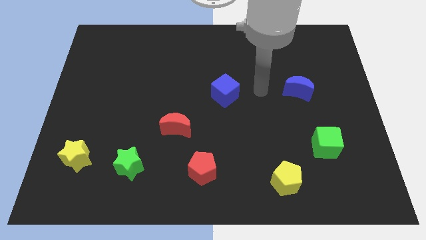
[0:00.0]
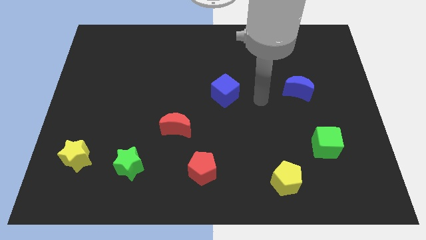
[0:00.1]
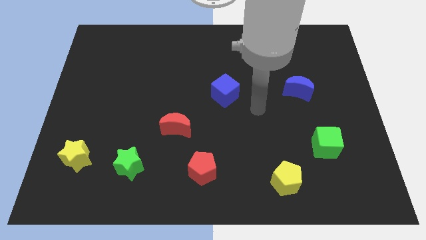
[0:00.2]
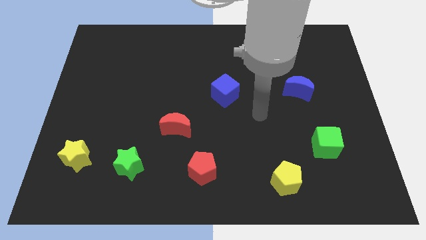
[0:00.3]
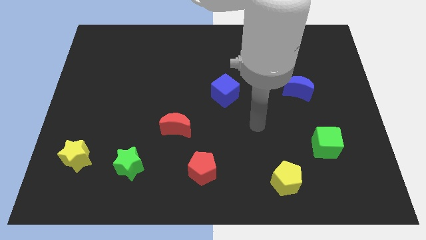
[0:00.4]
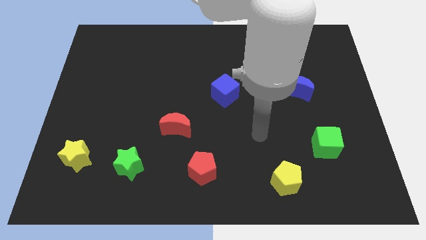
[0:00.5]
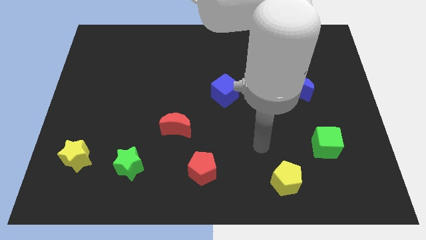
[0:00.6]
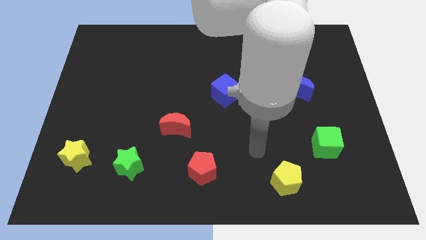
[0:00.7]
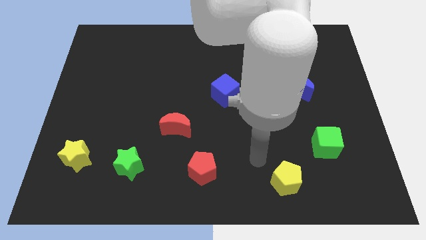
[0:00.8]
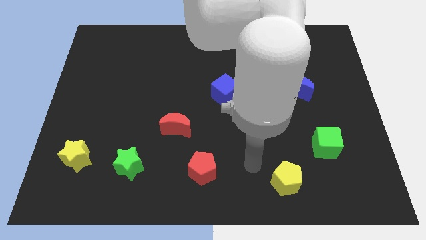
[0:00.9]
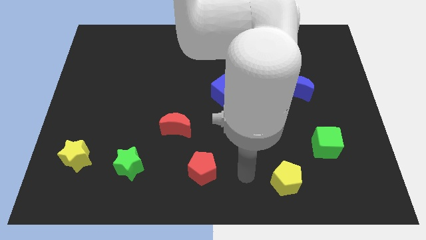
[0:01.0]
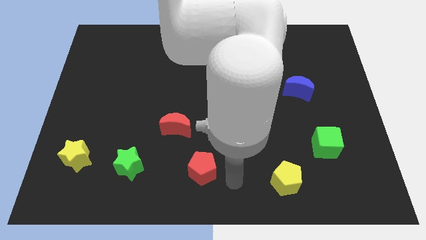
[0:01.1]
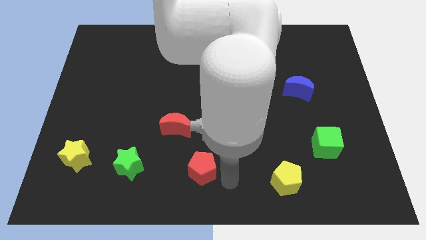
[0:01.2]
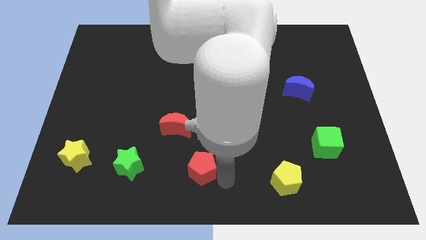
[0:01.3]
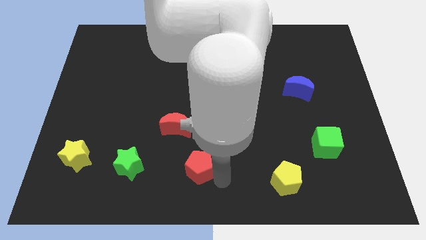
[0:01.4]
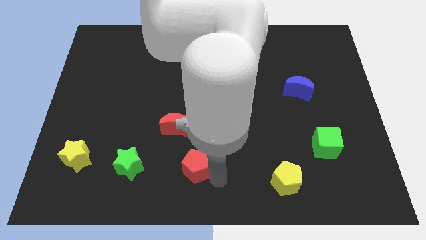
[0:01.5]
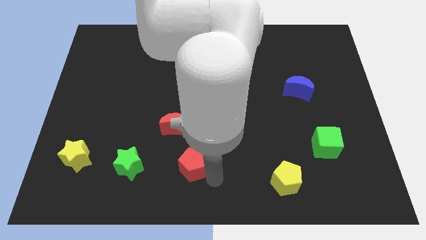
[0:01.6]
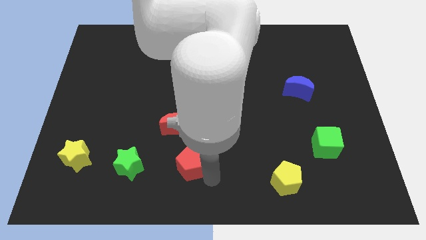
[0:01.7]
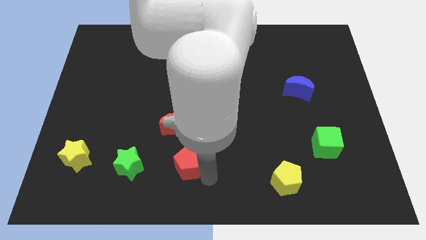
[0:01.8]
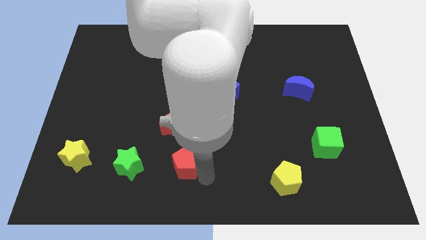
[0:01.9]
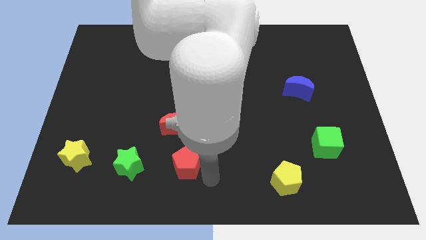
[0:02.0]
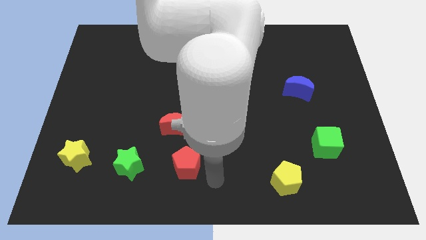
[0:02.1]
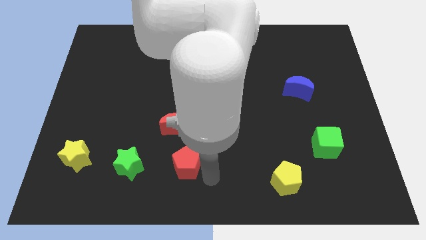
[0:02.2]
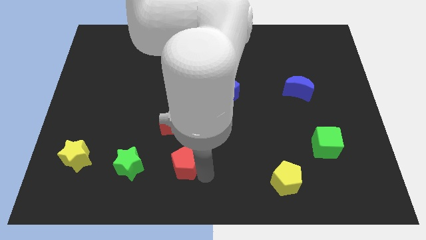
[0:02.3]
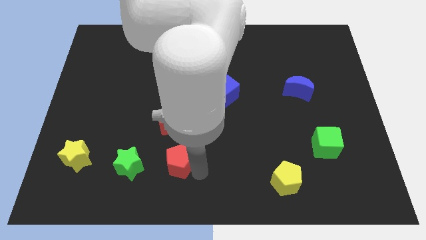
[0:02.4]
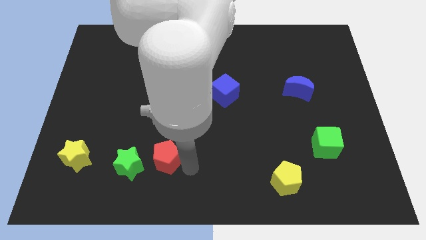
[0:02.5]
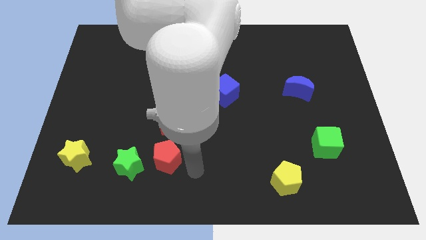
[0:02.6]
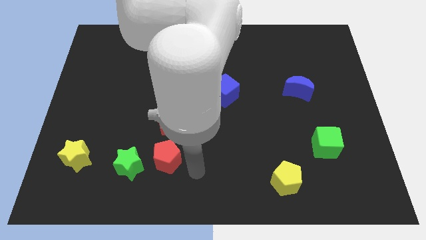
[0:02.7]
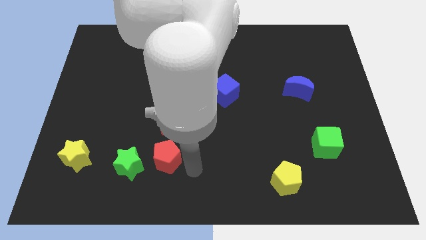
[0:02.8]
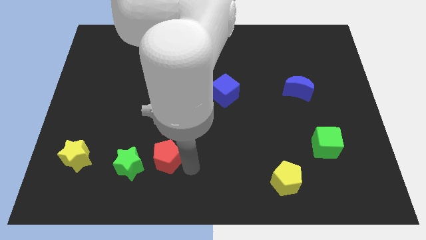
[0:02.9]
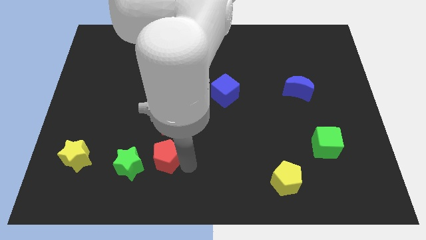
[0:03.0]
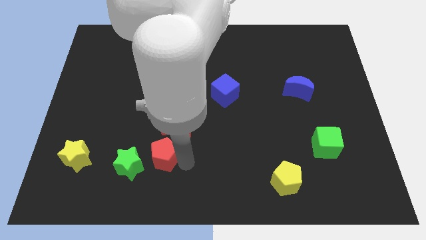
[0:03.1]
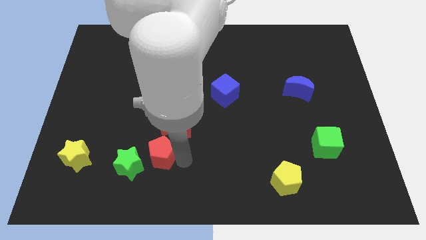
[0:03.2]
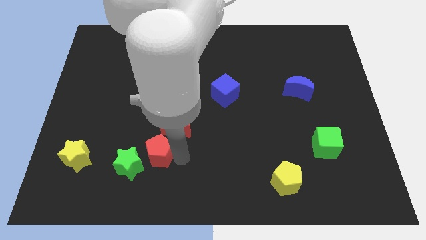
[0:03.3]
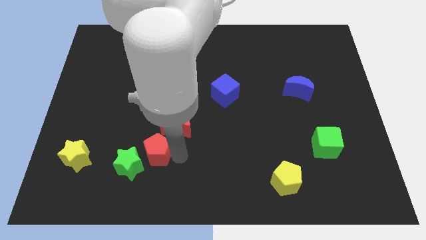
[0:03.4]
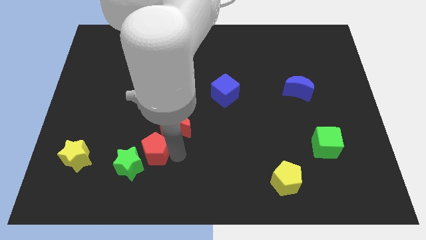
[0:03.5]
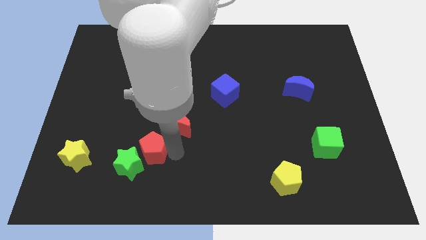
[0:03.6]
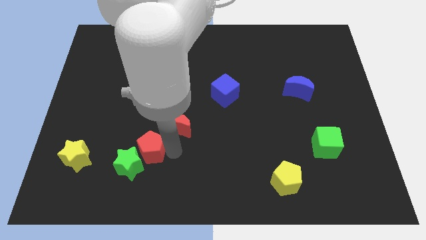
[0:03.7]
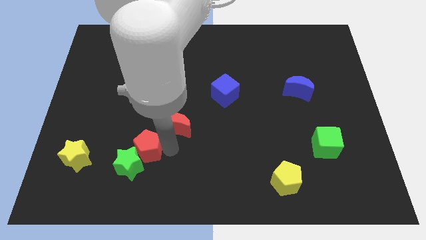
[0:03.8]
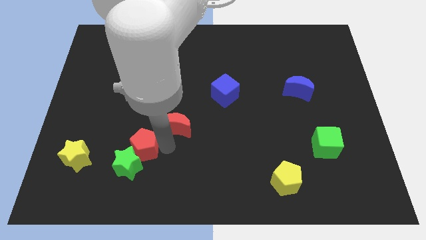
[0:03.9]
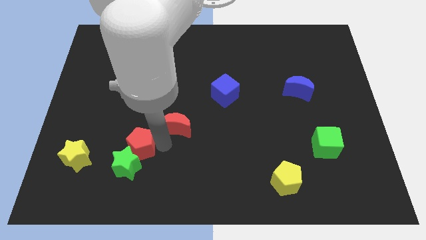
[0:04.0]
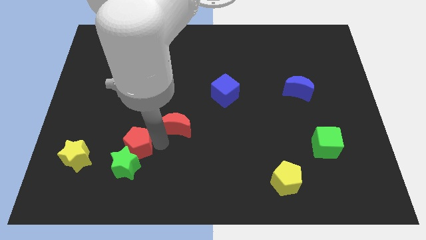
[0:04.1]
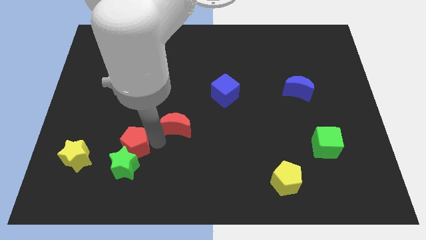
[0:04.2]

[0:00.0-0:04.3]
move the red pentagon to the top left side of the green star

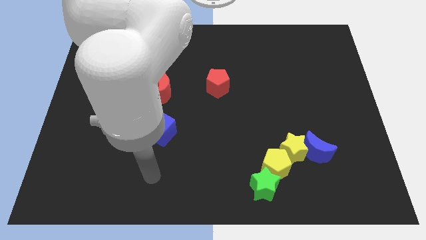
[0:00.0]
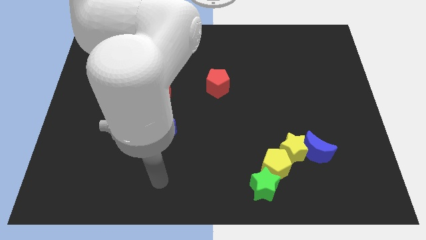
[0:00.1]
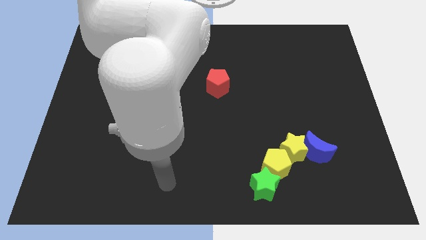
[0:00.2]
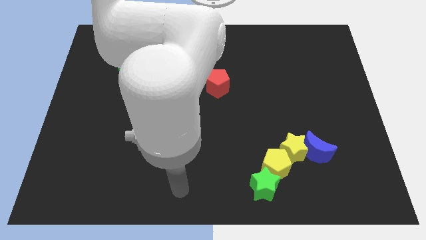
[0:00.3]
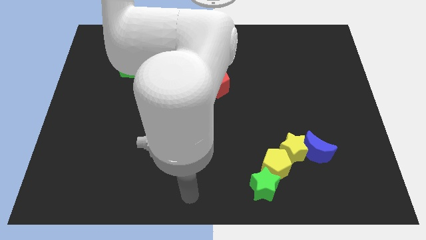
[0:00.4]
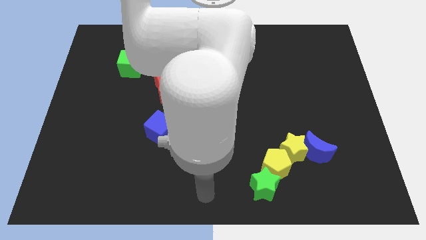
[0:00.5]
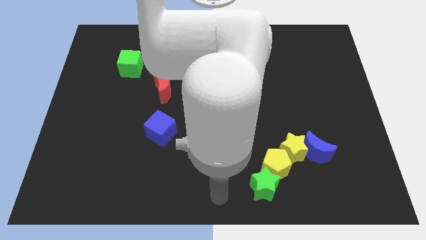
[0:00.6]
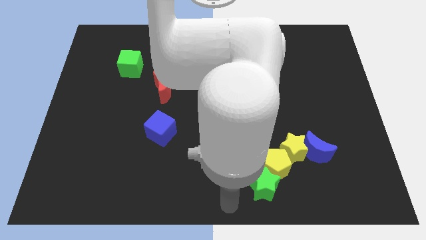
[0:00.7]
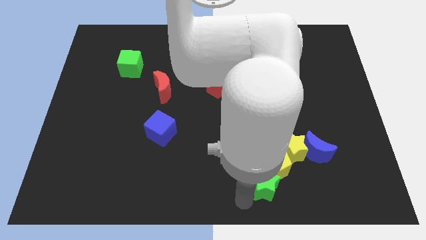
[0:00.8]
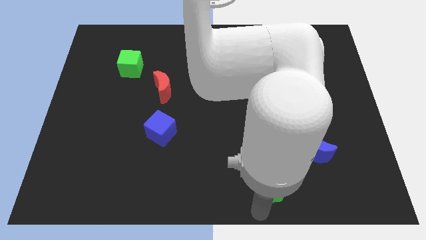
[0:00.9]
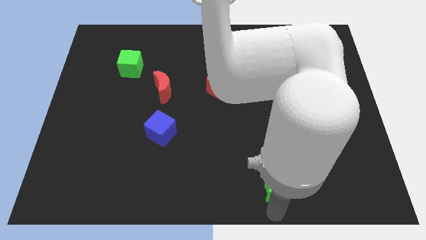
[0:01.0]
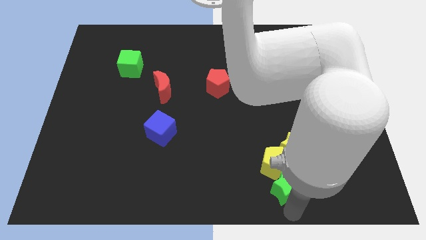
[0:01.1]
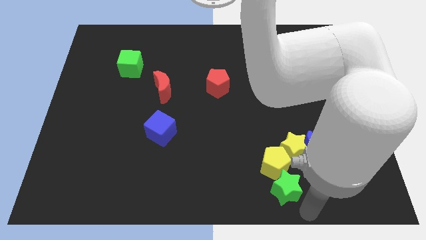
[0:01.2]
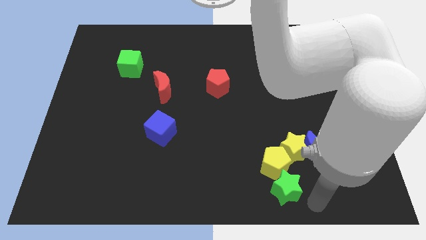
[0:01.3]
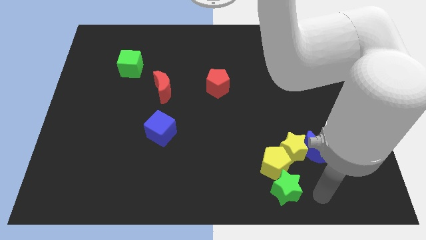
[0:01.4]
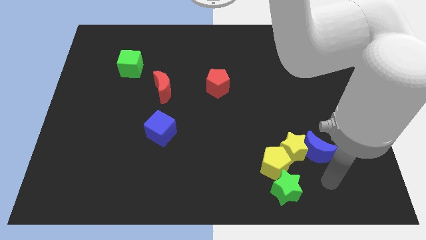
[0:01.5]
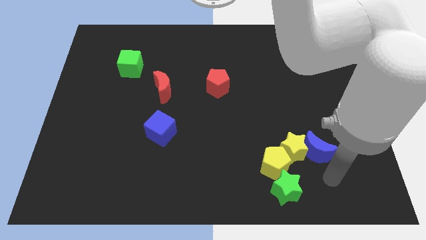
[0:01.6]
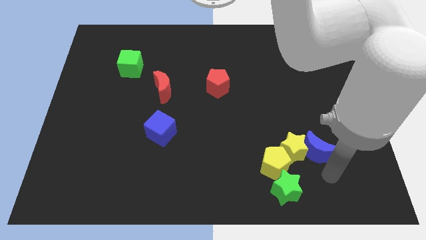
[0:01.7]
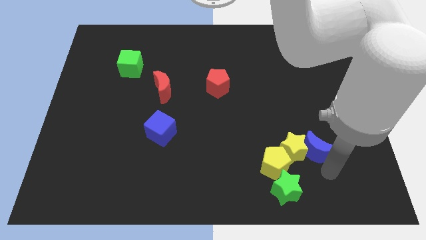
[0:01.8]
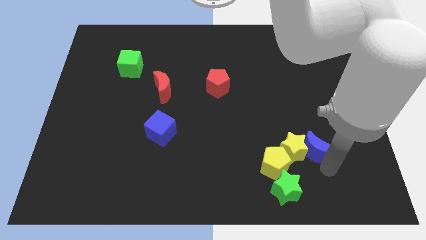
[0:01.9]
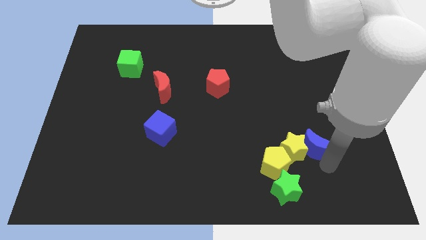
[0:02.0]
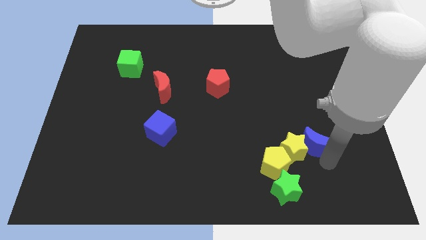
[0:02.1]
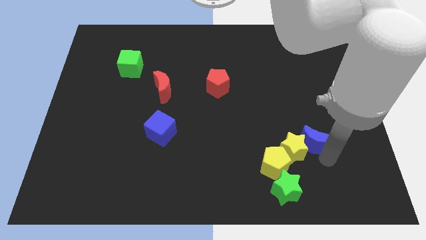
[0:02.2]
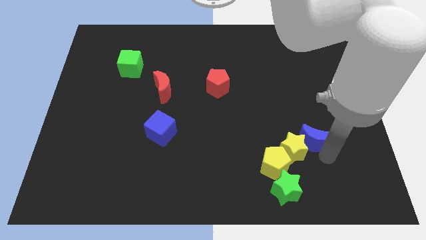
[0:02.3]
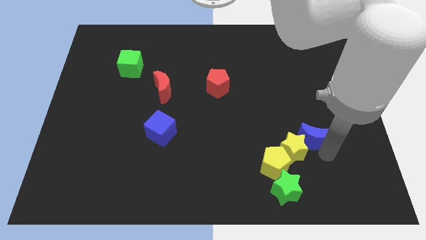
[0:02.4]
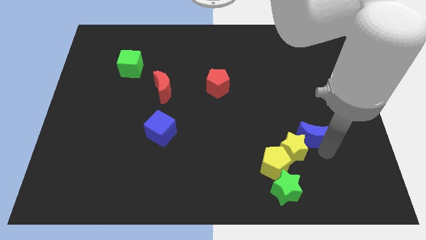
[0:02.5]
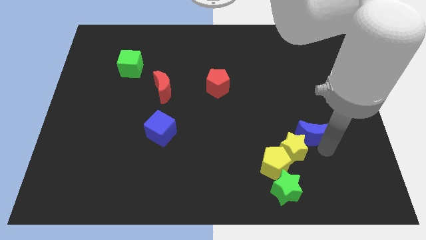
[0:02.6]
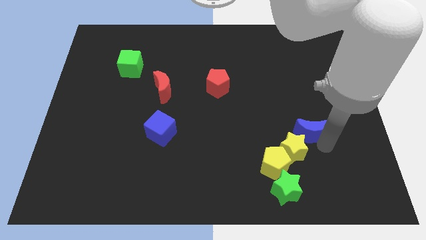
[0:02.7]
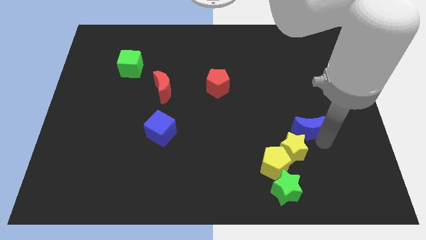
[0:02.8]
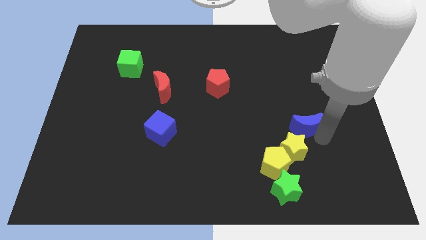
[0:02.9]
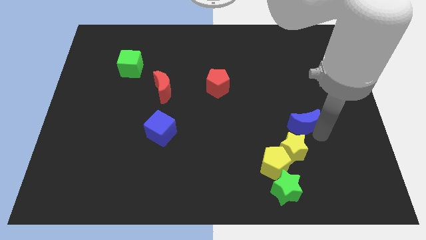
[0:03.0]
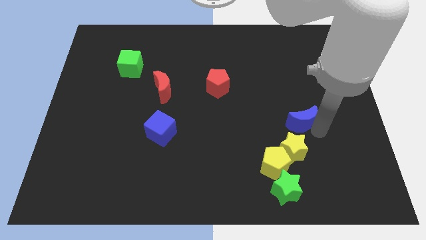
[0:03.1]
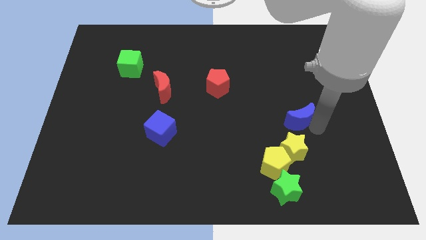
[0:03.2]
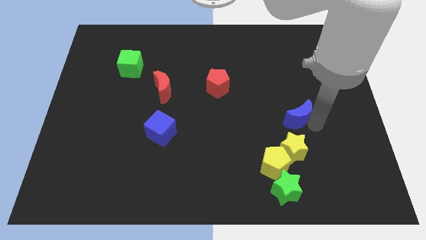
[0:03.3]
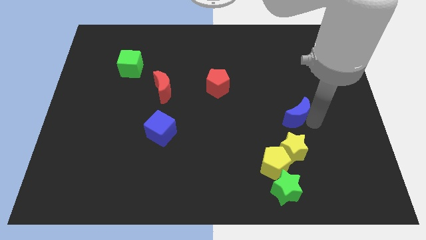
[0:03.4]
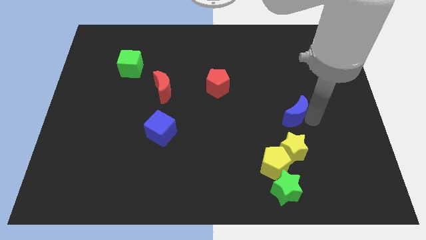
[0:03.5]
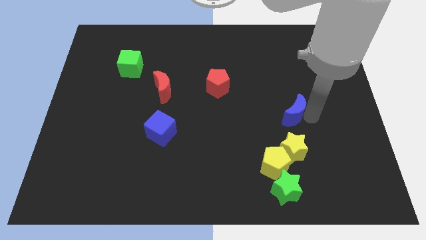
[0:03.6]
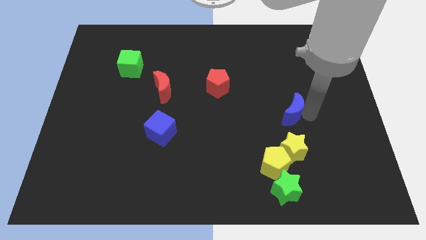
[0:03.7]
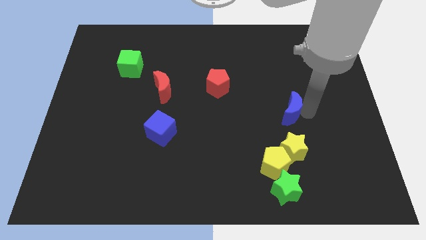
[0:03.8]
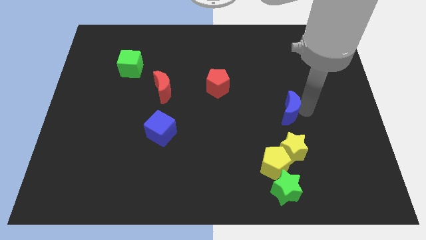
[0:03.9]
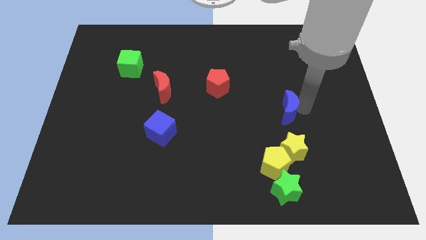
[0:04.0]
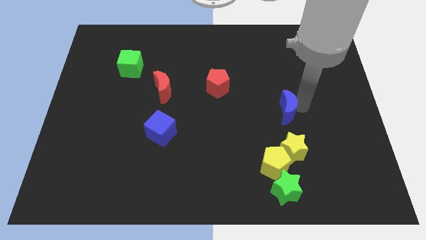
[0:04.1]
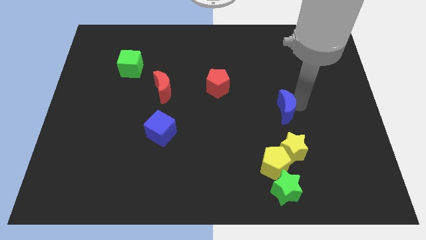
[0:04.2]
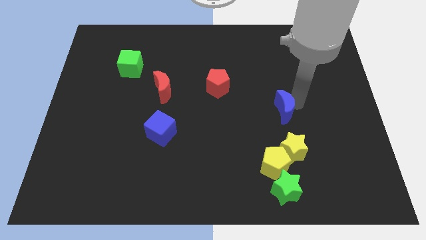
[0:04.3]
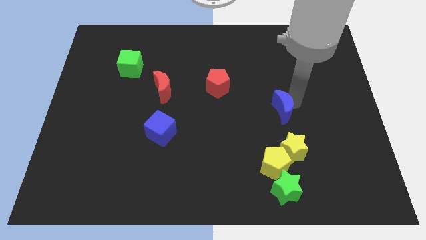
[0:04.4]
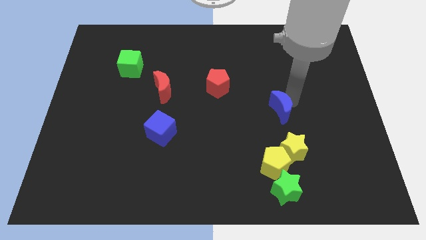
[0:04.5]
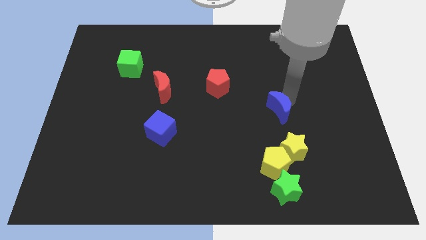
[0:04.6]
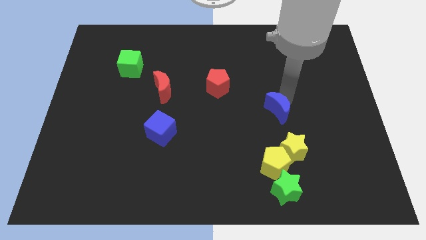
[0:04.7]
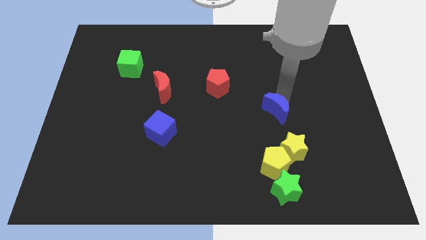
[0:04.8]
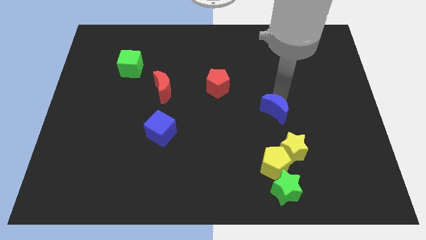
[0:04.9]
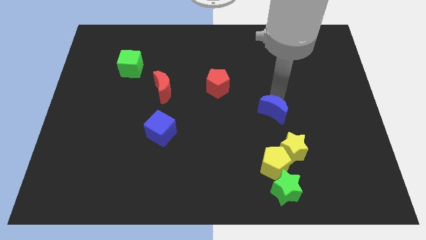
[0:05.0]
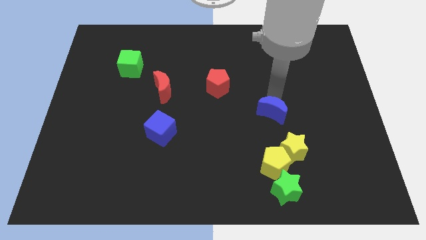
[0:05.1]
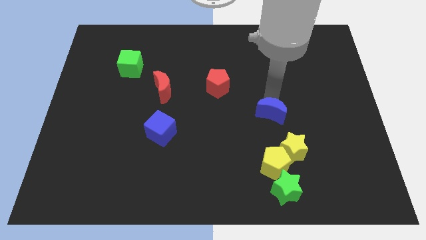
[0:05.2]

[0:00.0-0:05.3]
push the blue moon diagonally up and to the left of the yellow star
